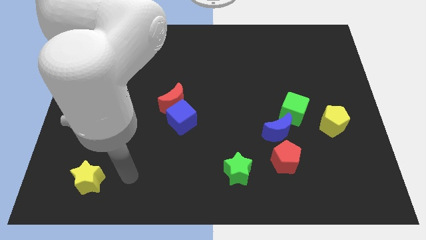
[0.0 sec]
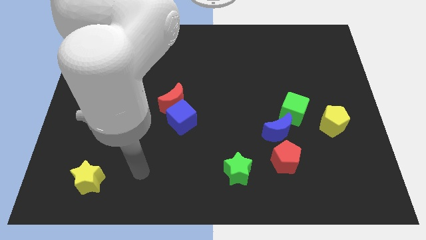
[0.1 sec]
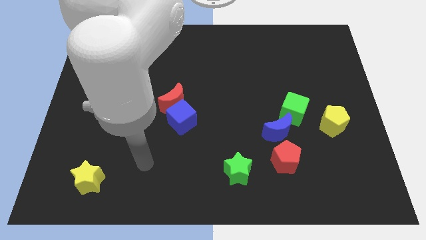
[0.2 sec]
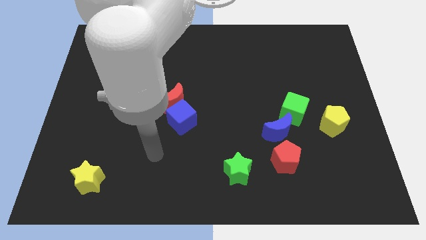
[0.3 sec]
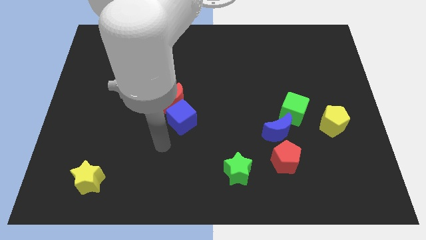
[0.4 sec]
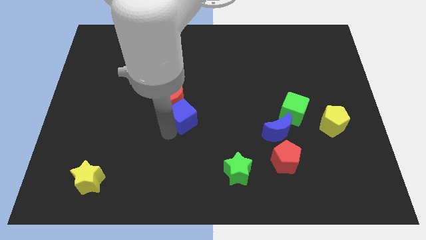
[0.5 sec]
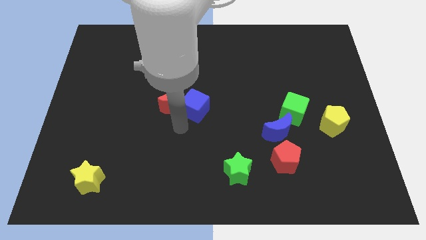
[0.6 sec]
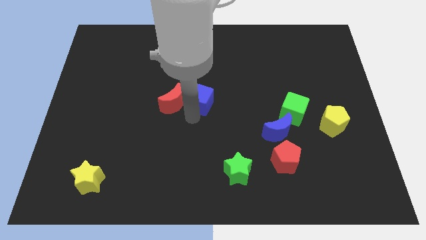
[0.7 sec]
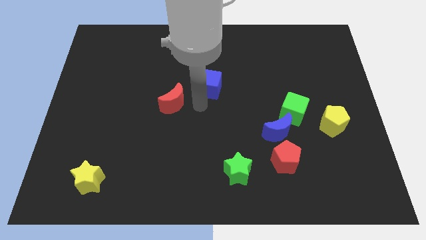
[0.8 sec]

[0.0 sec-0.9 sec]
move the red moon away from the blue cube

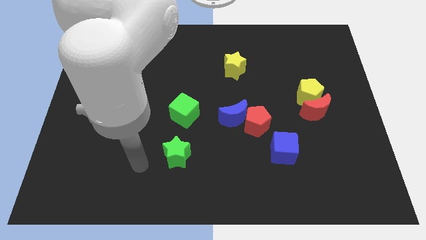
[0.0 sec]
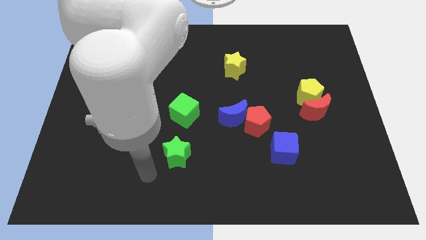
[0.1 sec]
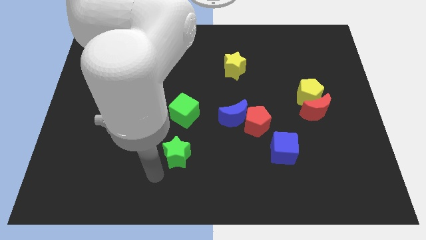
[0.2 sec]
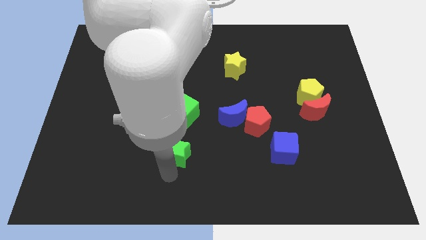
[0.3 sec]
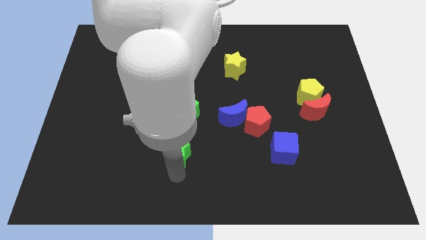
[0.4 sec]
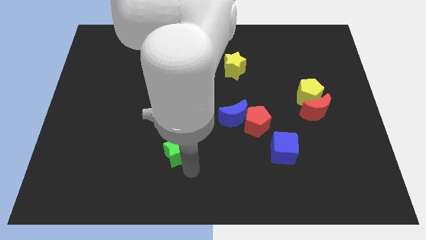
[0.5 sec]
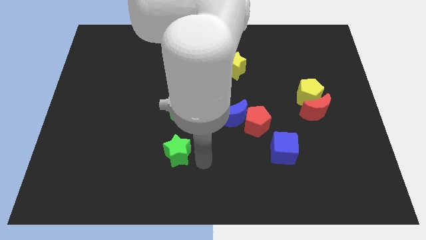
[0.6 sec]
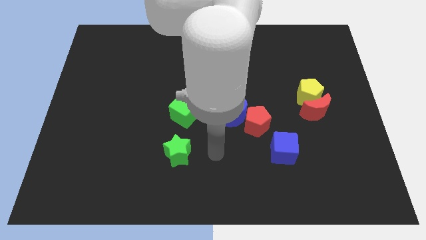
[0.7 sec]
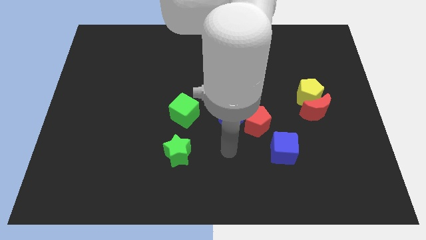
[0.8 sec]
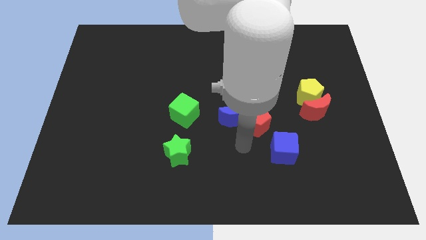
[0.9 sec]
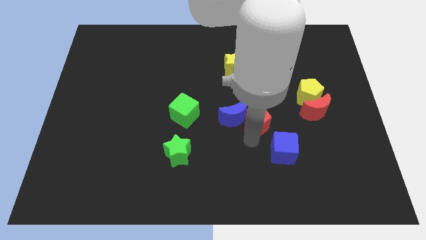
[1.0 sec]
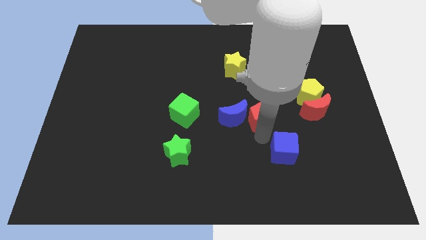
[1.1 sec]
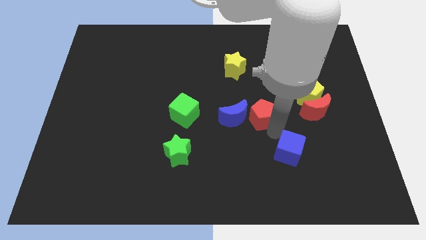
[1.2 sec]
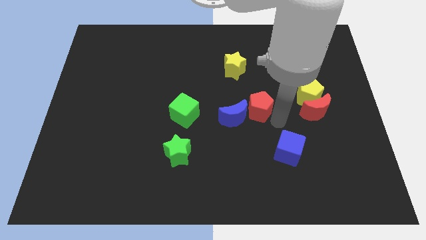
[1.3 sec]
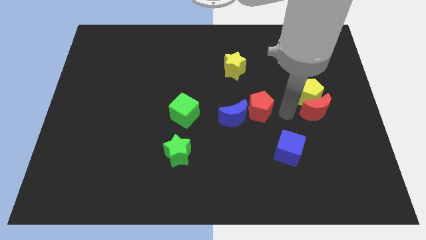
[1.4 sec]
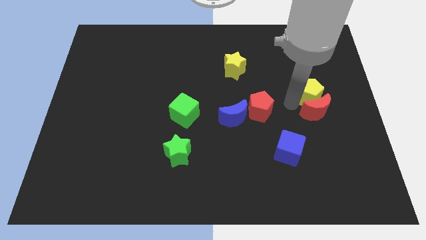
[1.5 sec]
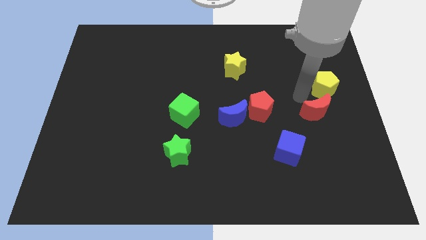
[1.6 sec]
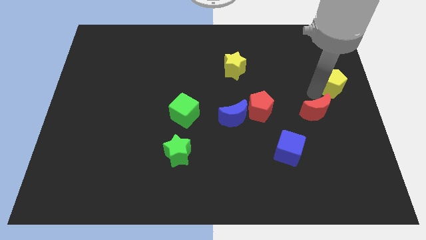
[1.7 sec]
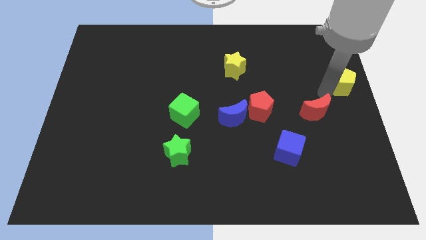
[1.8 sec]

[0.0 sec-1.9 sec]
pull the red moon apart from the yellow pentagon

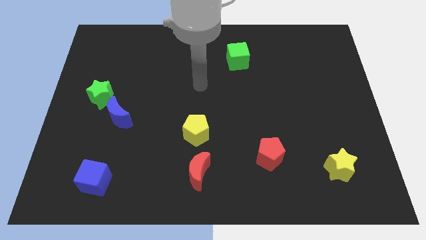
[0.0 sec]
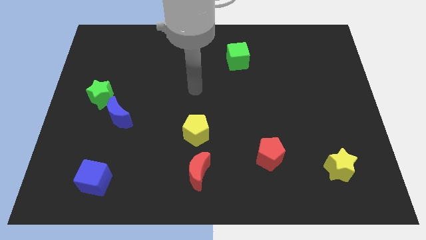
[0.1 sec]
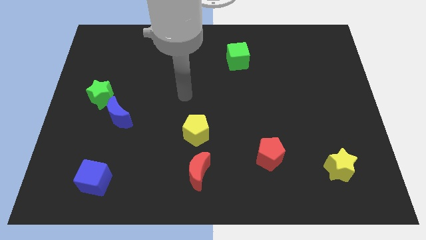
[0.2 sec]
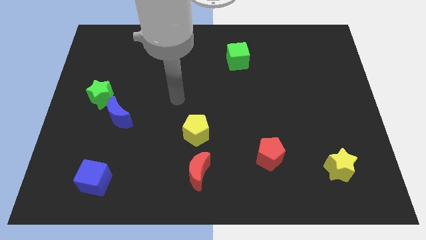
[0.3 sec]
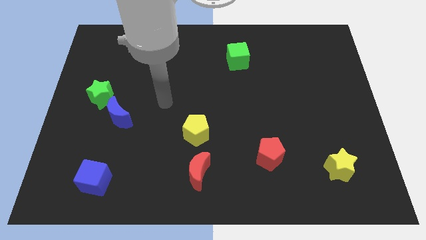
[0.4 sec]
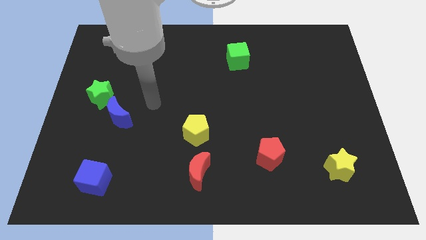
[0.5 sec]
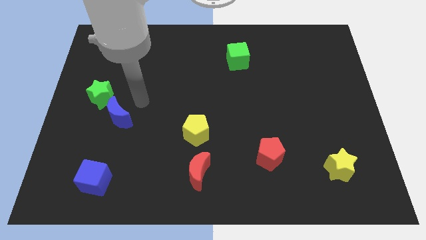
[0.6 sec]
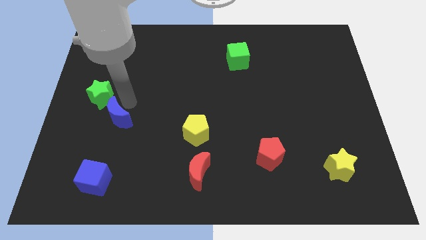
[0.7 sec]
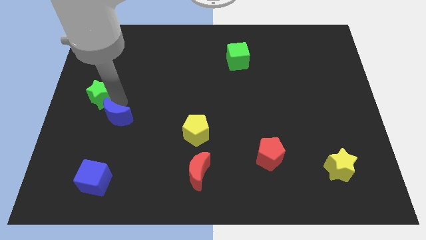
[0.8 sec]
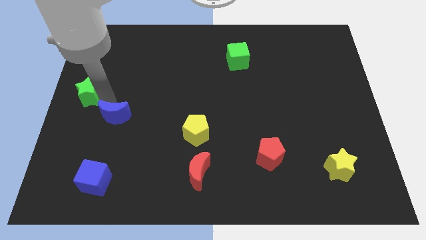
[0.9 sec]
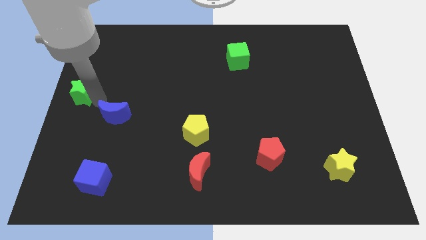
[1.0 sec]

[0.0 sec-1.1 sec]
pull the blue moon apart from the green star

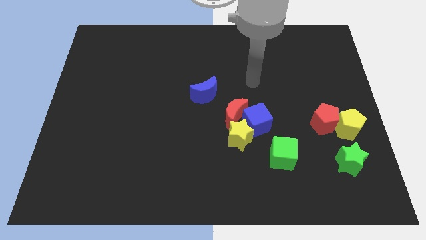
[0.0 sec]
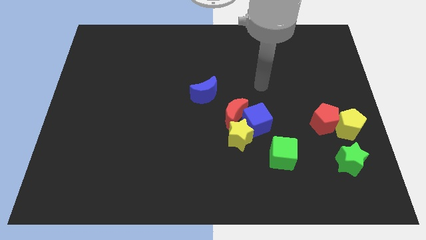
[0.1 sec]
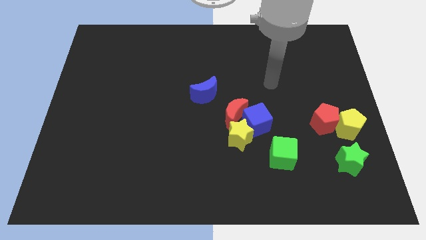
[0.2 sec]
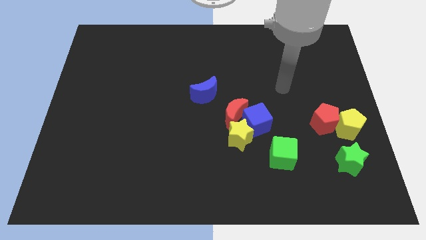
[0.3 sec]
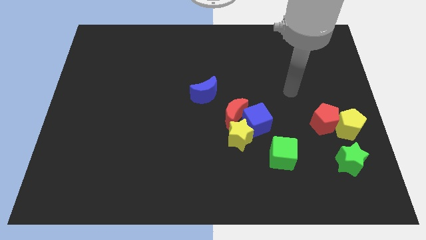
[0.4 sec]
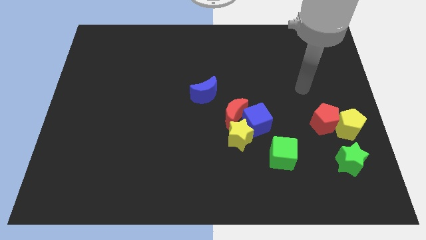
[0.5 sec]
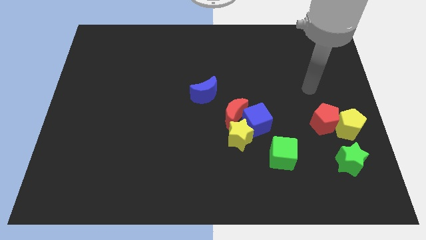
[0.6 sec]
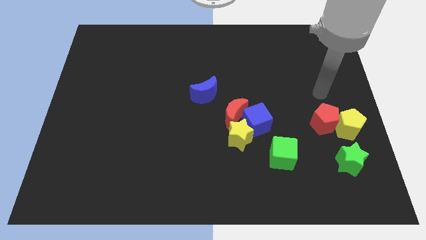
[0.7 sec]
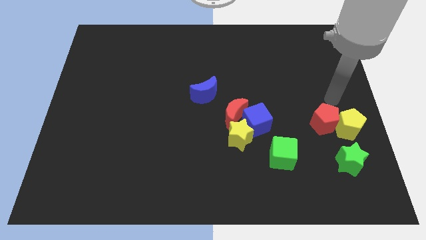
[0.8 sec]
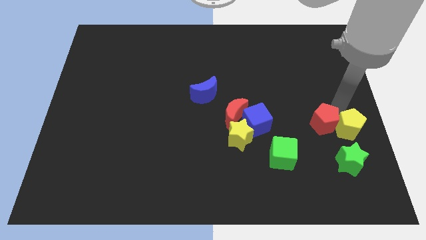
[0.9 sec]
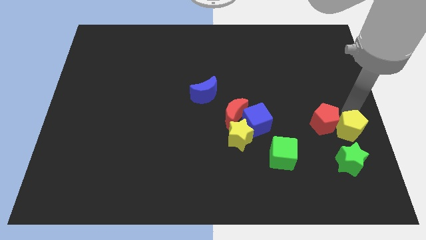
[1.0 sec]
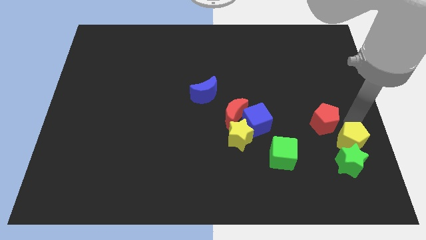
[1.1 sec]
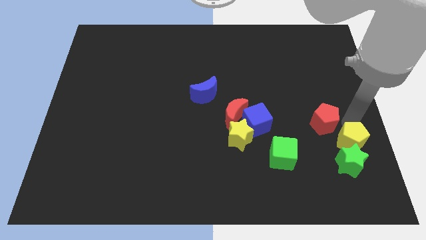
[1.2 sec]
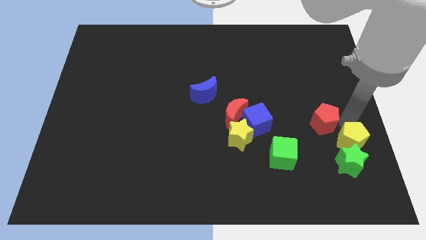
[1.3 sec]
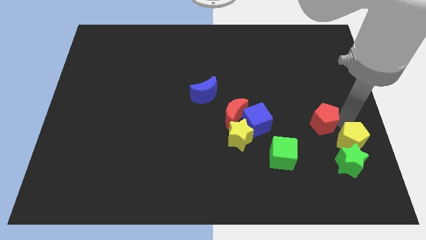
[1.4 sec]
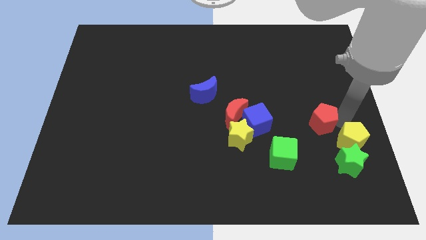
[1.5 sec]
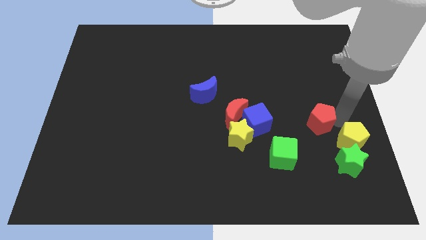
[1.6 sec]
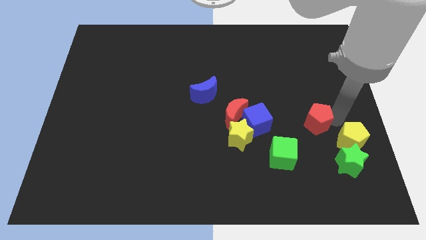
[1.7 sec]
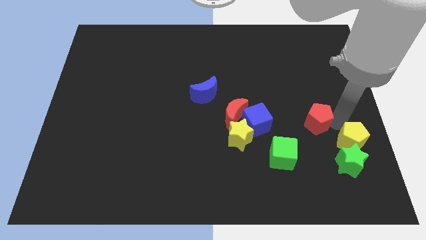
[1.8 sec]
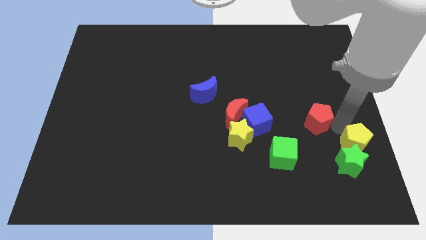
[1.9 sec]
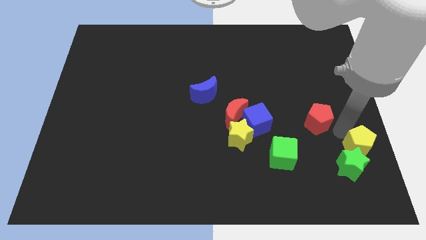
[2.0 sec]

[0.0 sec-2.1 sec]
move the red pentagon away from the yellow pentagon

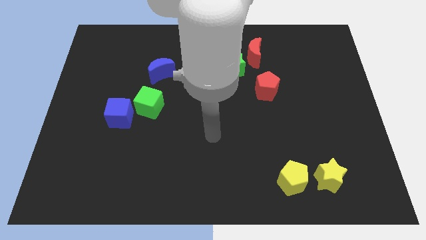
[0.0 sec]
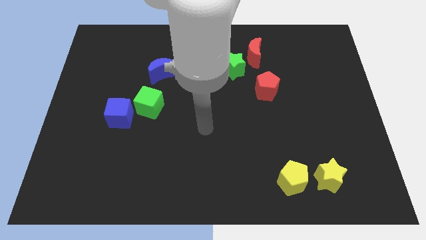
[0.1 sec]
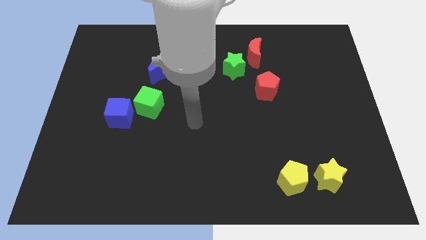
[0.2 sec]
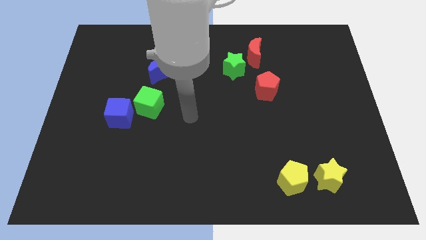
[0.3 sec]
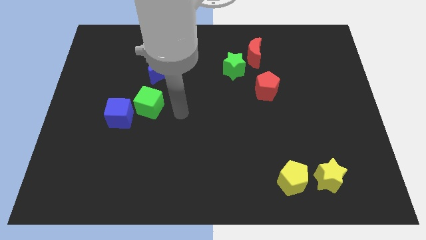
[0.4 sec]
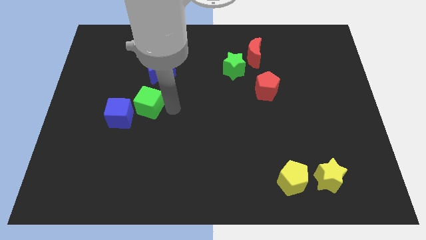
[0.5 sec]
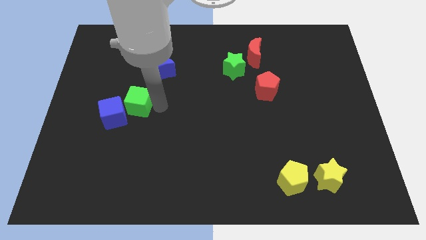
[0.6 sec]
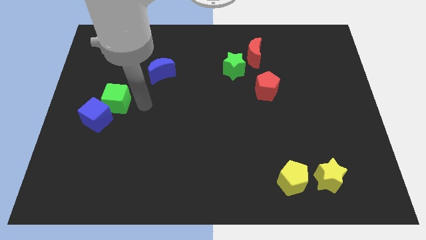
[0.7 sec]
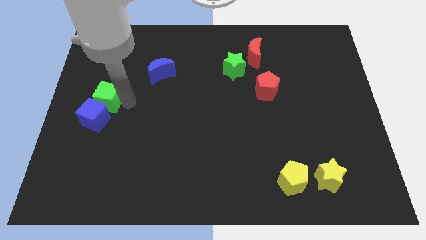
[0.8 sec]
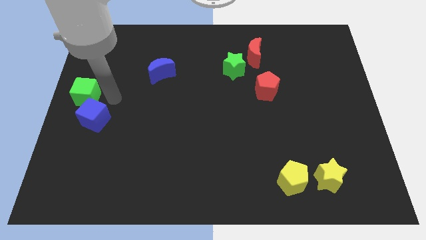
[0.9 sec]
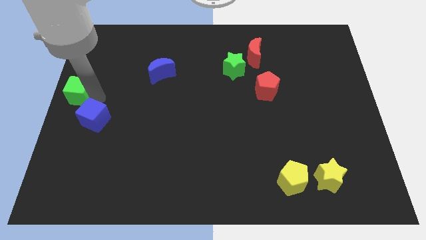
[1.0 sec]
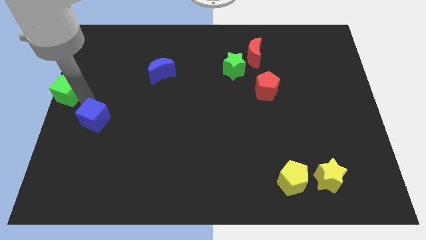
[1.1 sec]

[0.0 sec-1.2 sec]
separate the blue cube from the green cube

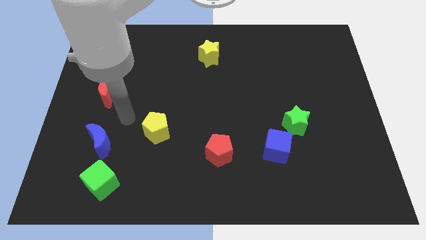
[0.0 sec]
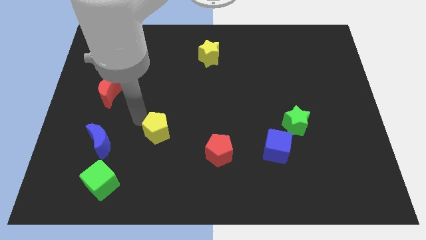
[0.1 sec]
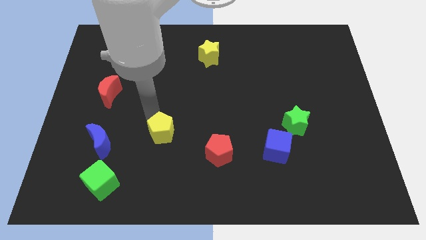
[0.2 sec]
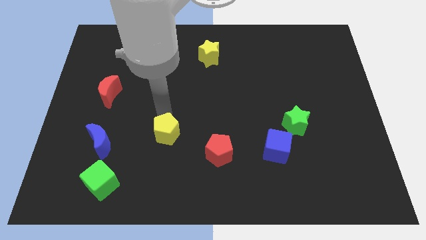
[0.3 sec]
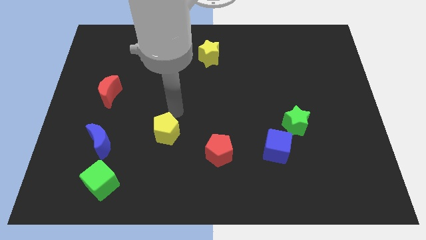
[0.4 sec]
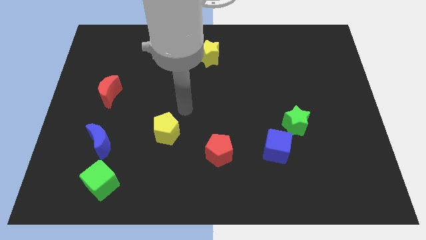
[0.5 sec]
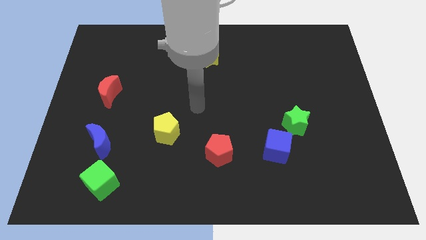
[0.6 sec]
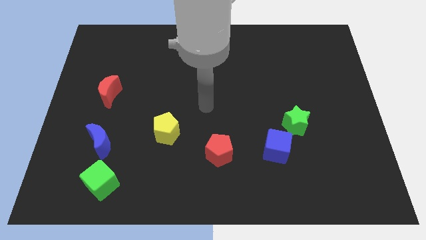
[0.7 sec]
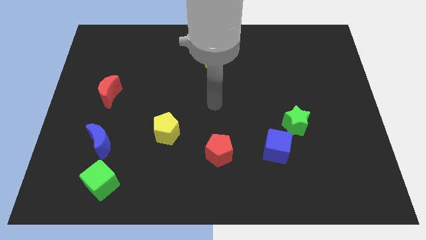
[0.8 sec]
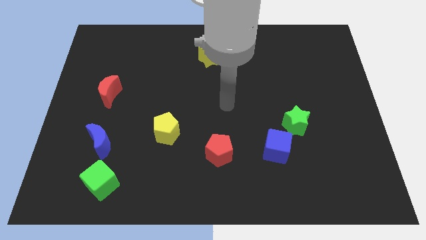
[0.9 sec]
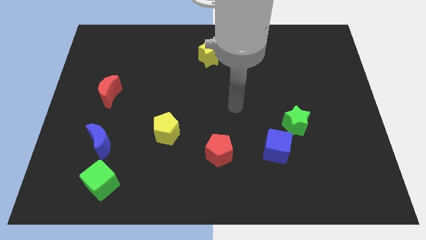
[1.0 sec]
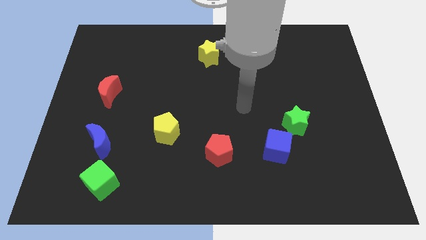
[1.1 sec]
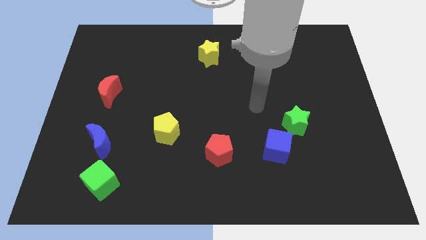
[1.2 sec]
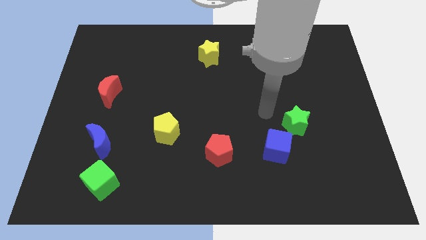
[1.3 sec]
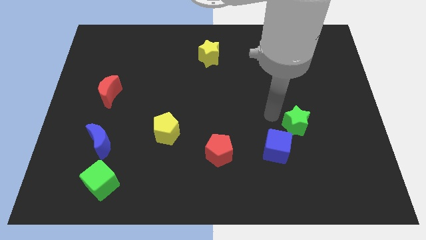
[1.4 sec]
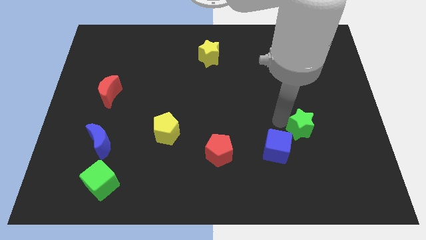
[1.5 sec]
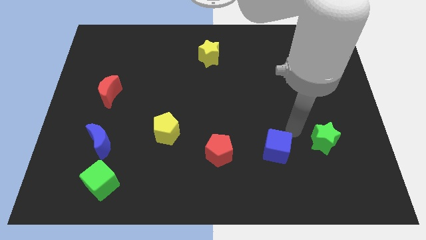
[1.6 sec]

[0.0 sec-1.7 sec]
pull the blue cube apart from the green star

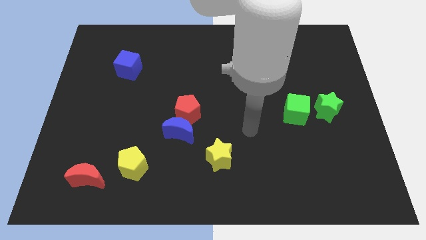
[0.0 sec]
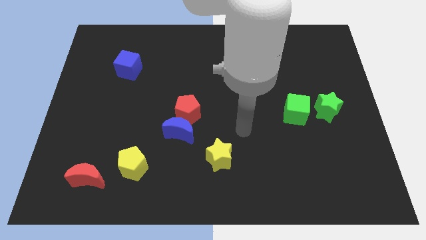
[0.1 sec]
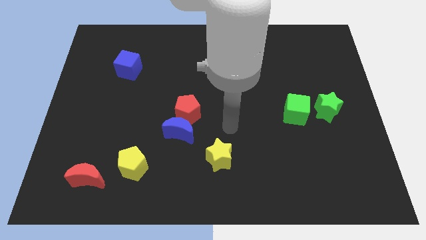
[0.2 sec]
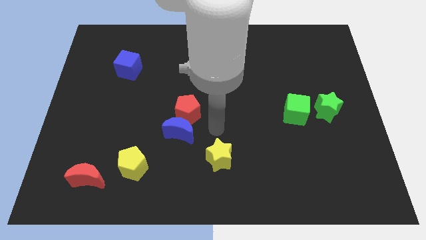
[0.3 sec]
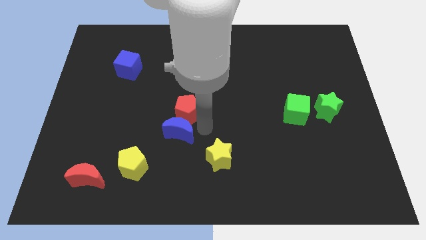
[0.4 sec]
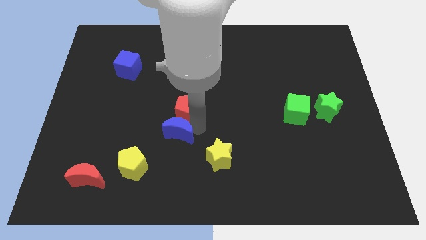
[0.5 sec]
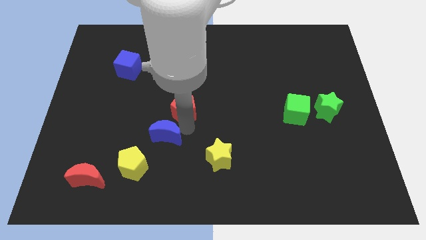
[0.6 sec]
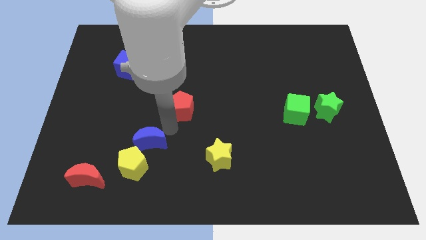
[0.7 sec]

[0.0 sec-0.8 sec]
separate the red pentagon from the blue moon
